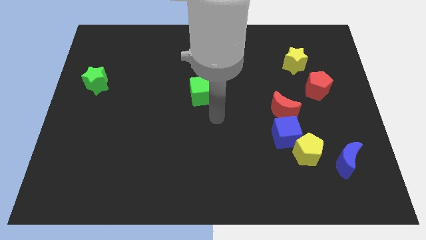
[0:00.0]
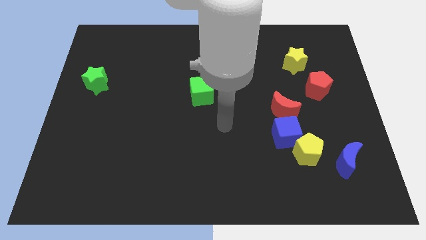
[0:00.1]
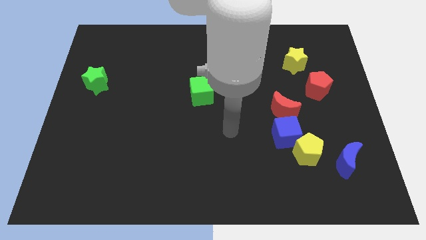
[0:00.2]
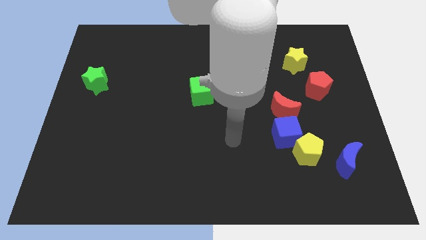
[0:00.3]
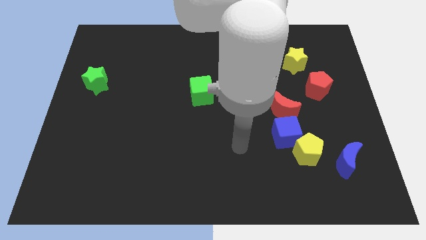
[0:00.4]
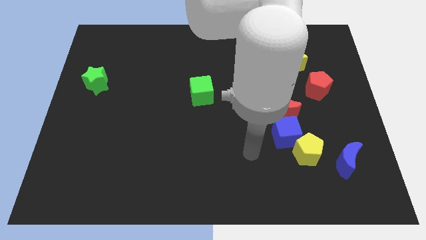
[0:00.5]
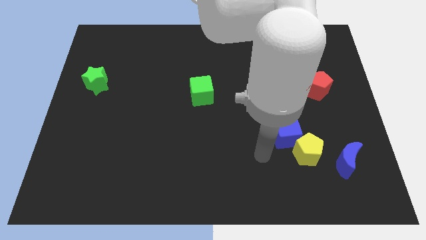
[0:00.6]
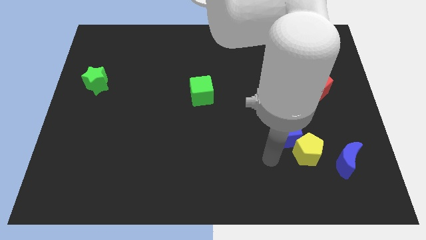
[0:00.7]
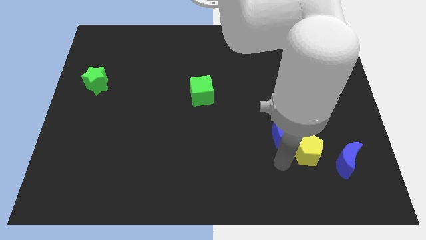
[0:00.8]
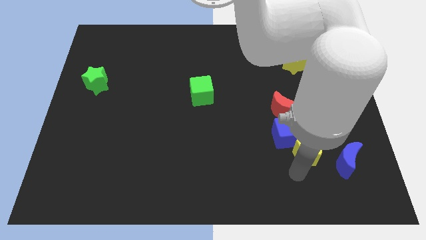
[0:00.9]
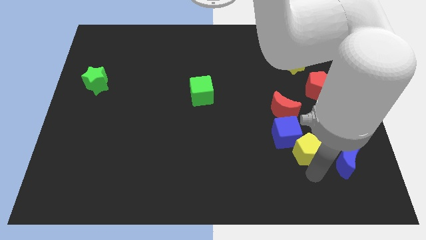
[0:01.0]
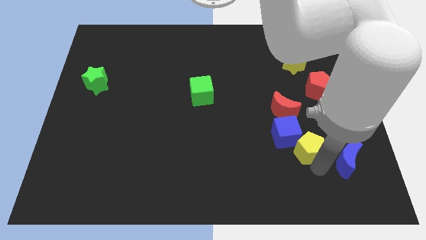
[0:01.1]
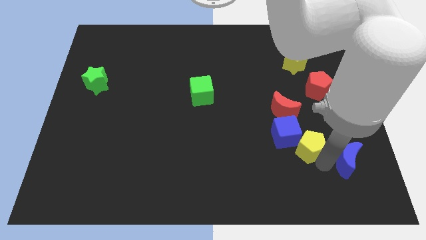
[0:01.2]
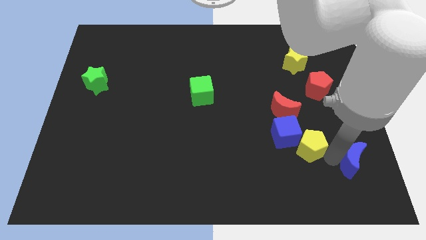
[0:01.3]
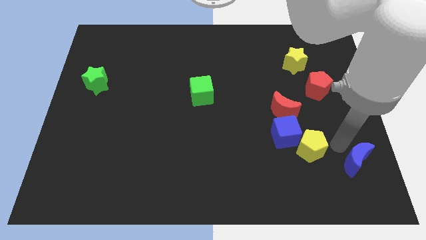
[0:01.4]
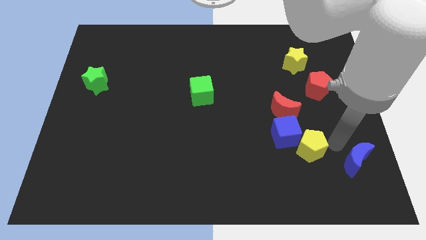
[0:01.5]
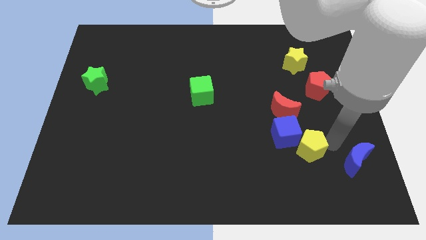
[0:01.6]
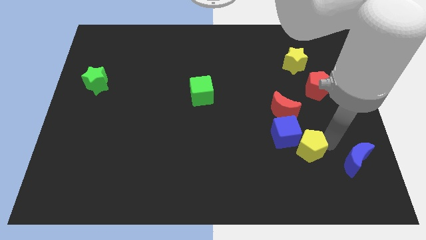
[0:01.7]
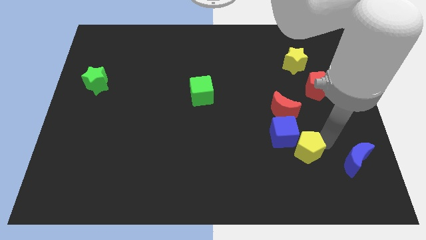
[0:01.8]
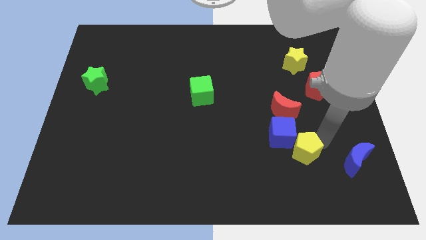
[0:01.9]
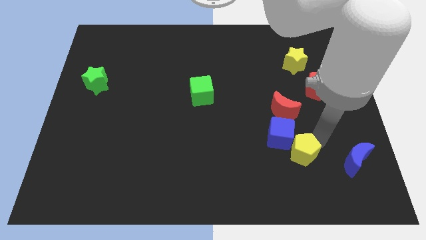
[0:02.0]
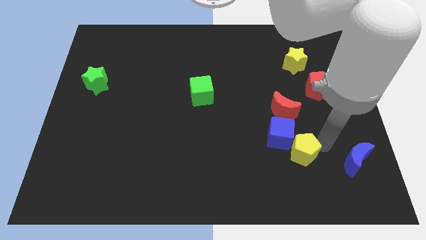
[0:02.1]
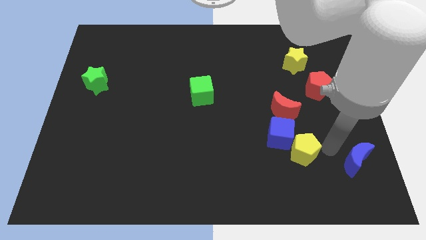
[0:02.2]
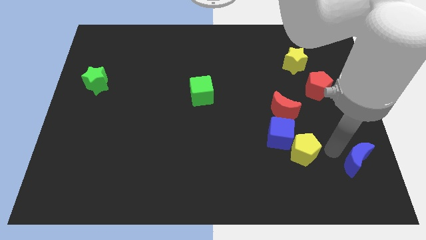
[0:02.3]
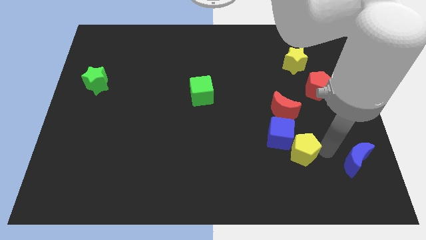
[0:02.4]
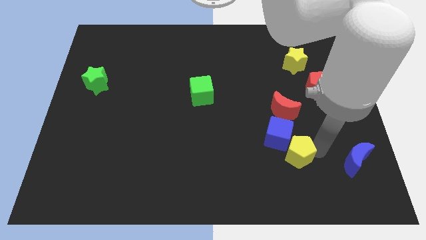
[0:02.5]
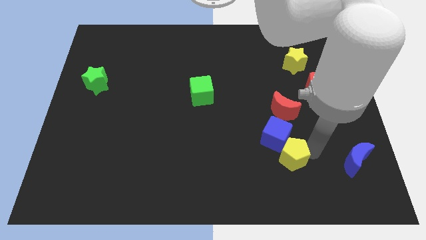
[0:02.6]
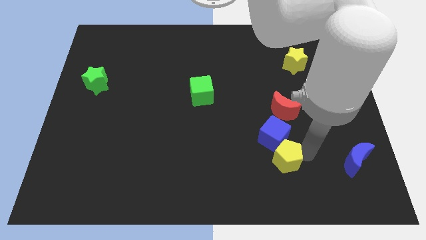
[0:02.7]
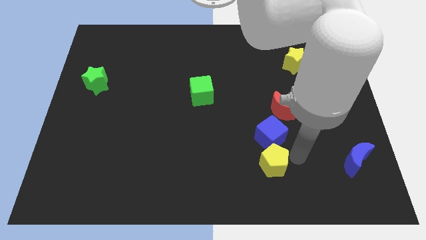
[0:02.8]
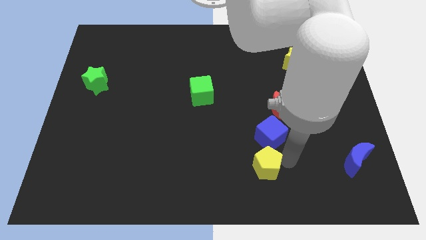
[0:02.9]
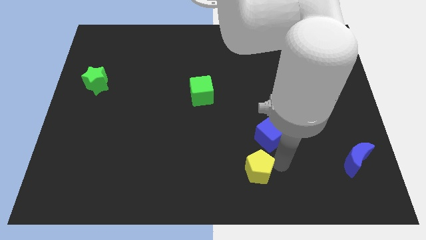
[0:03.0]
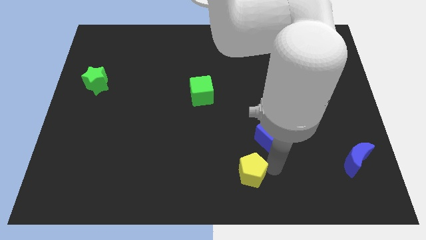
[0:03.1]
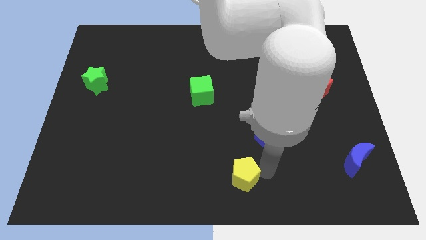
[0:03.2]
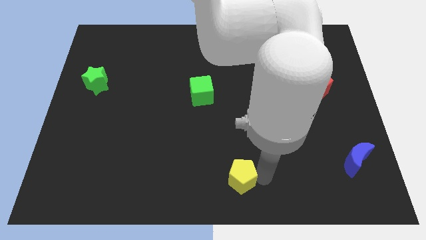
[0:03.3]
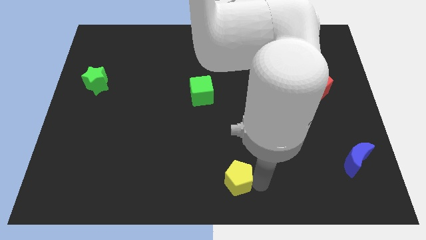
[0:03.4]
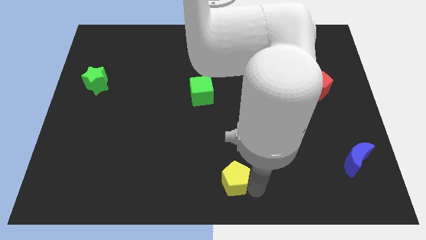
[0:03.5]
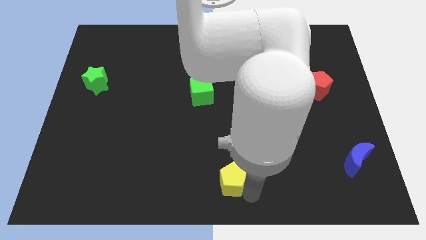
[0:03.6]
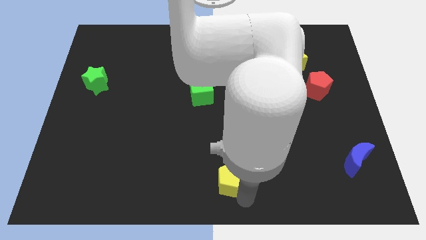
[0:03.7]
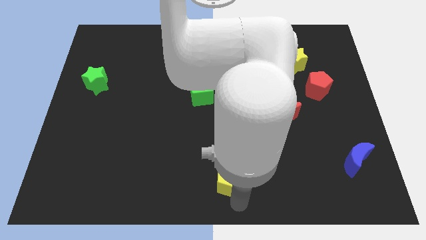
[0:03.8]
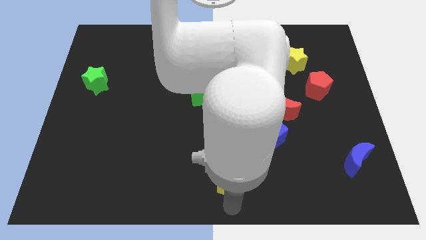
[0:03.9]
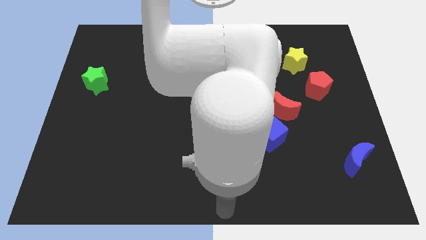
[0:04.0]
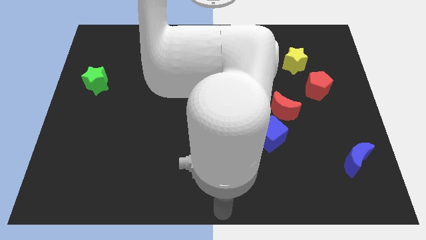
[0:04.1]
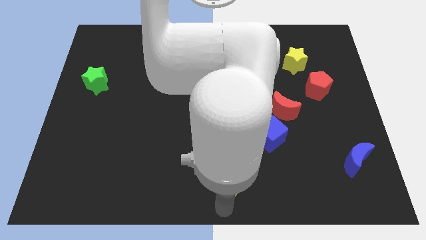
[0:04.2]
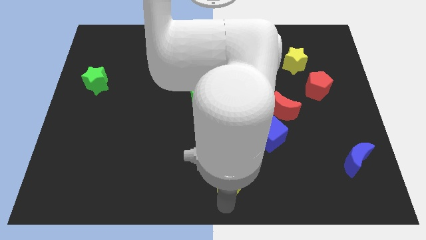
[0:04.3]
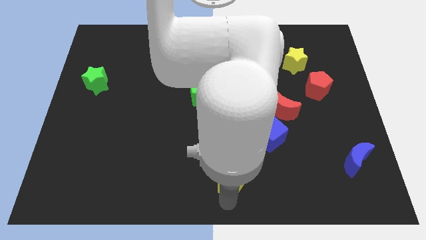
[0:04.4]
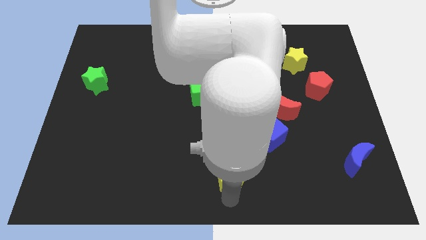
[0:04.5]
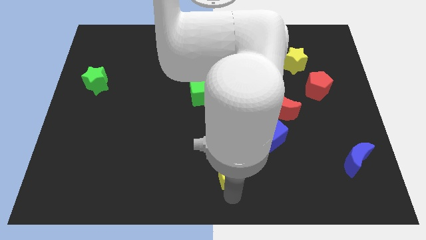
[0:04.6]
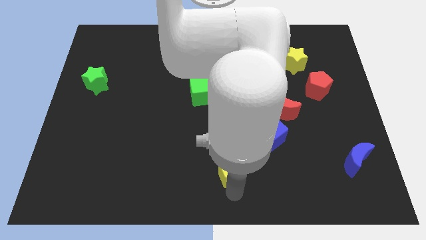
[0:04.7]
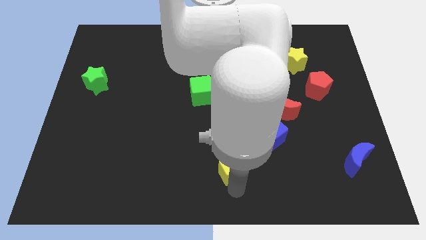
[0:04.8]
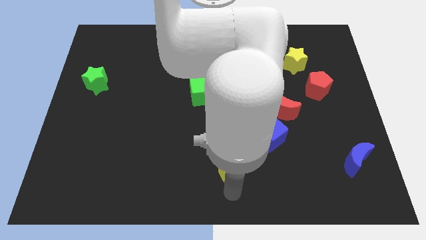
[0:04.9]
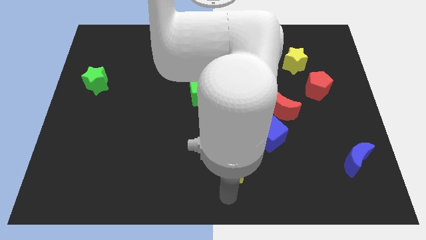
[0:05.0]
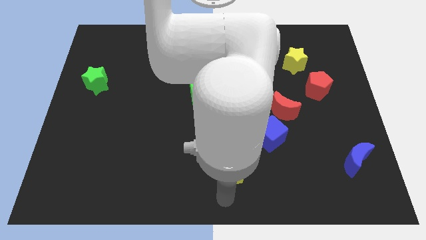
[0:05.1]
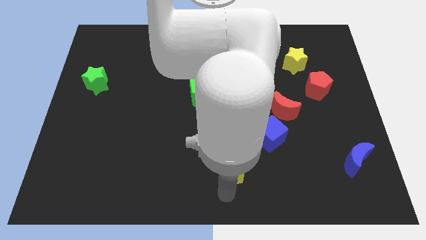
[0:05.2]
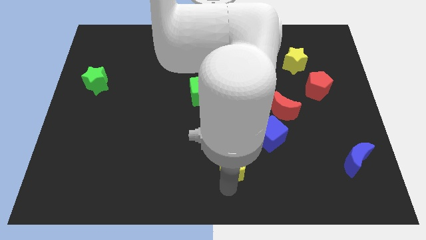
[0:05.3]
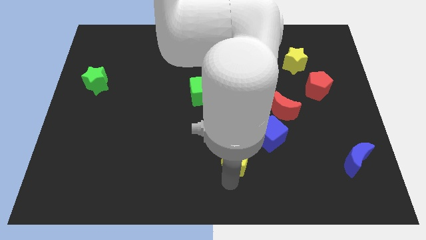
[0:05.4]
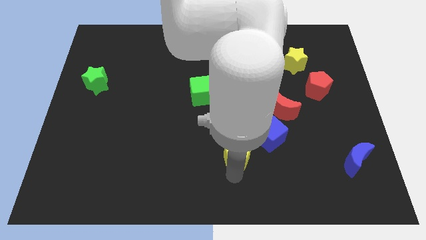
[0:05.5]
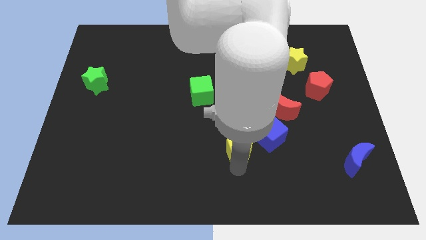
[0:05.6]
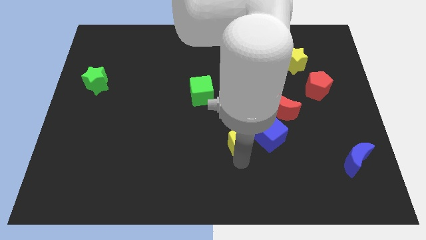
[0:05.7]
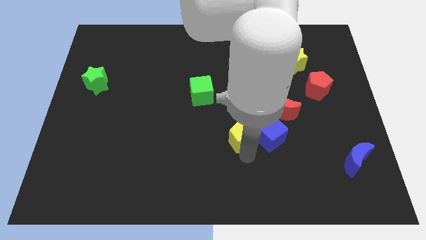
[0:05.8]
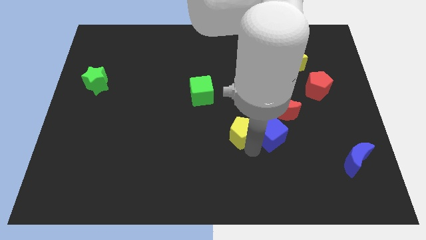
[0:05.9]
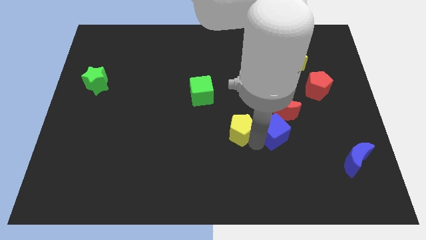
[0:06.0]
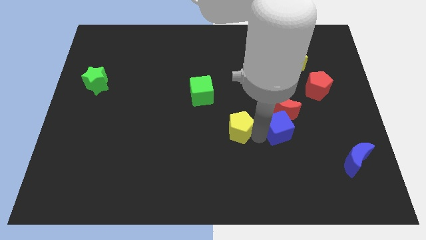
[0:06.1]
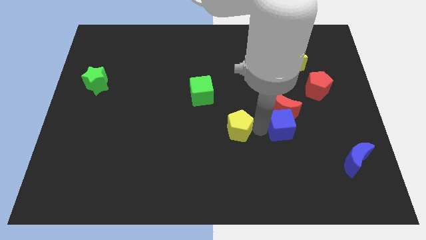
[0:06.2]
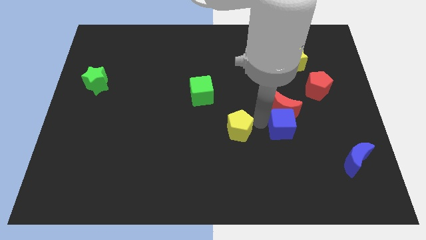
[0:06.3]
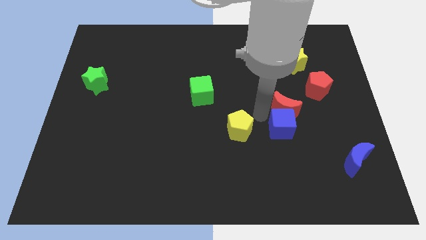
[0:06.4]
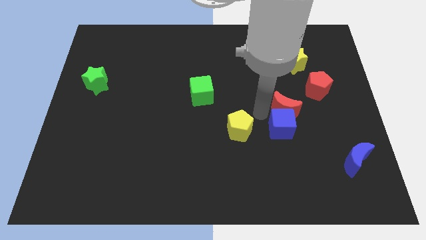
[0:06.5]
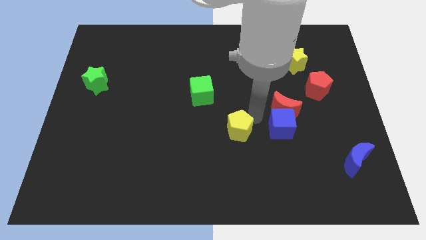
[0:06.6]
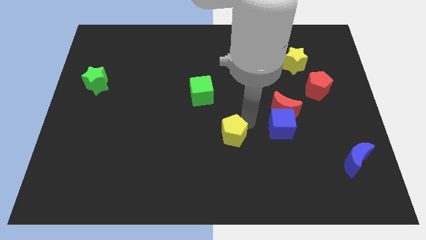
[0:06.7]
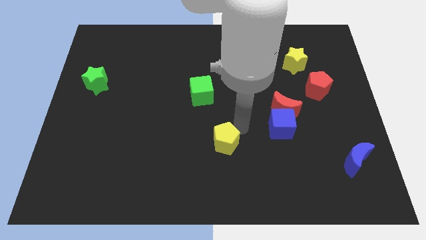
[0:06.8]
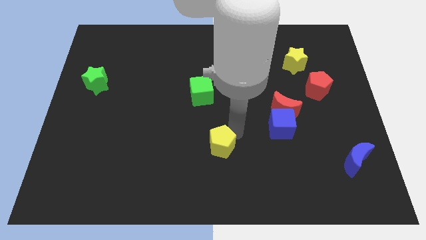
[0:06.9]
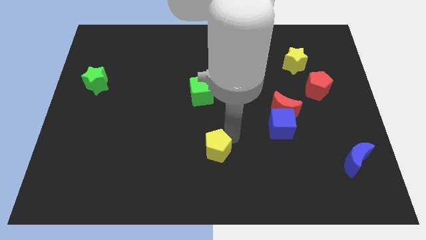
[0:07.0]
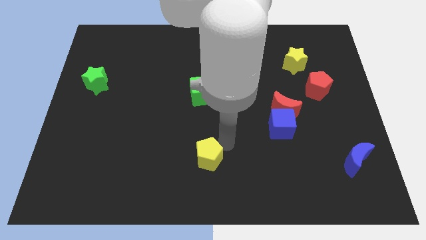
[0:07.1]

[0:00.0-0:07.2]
slide the yellow pentagon left

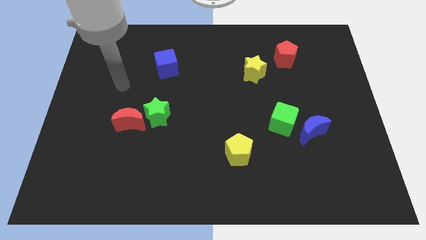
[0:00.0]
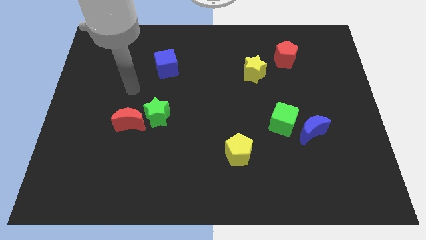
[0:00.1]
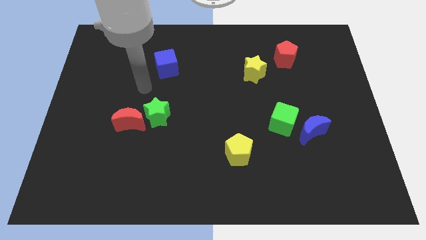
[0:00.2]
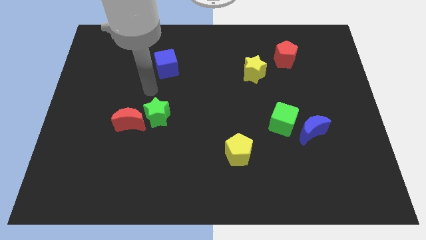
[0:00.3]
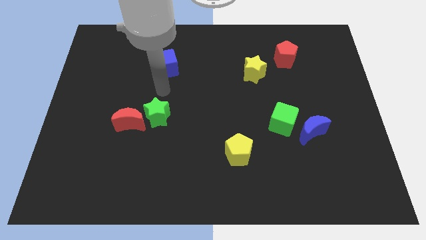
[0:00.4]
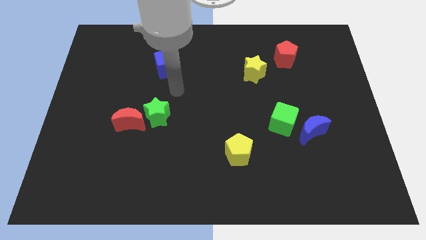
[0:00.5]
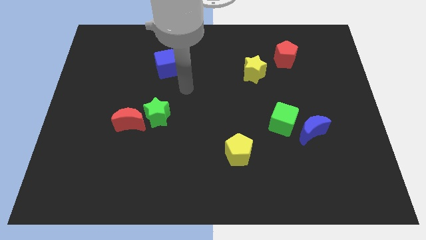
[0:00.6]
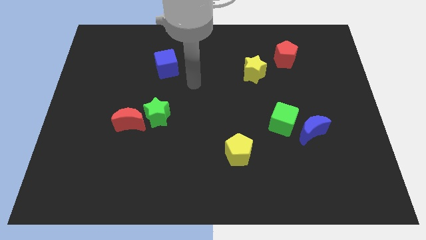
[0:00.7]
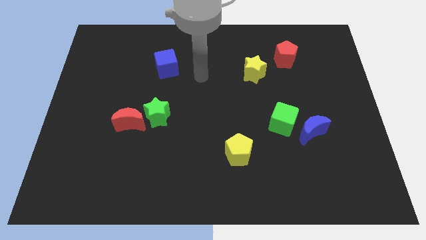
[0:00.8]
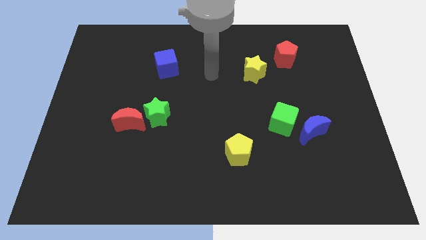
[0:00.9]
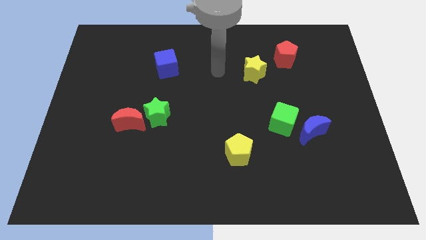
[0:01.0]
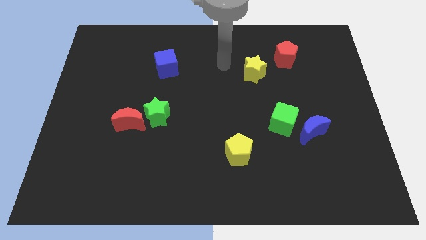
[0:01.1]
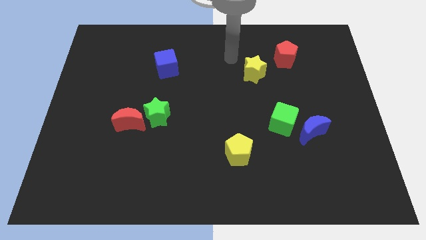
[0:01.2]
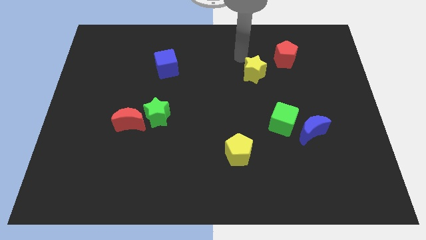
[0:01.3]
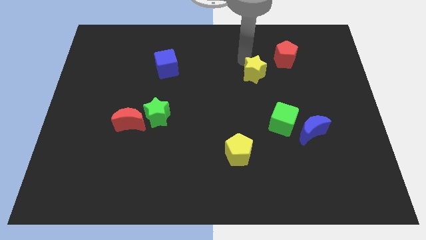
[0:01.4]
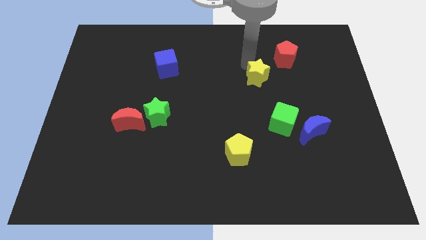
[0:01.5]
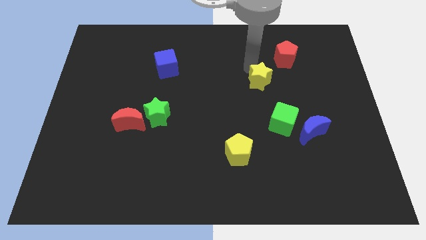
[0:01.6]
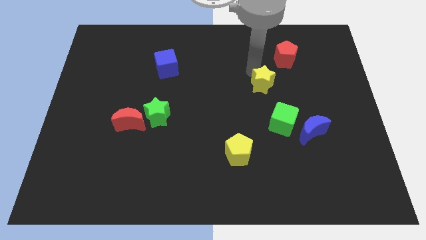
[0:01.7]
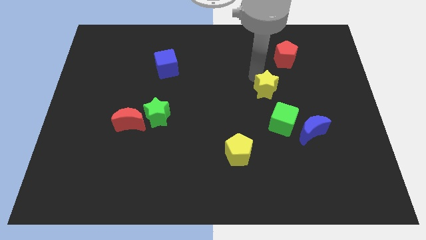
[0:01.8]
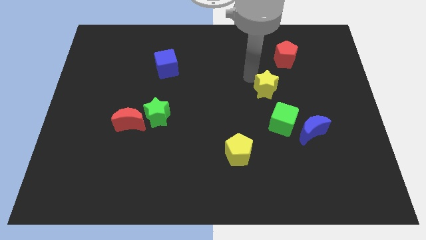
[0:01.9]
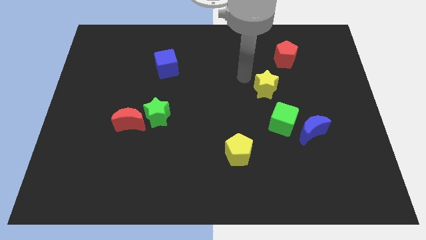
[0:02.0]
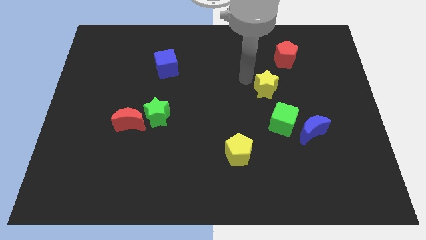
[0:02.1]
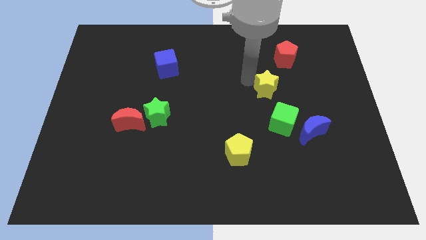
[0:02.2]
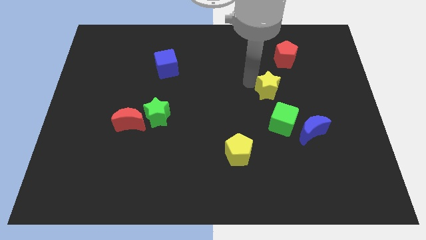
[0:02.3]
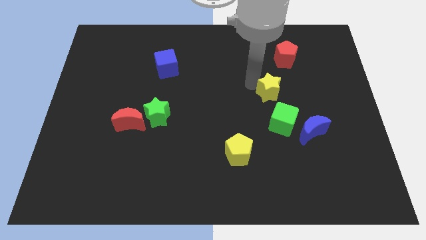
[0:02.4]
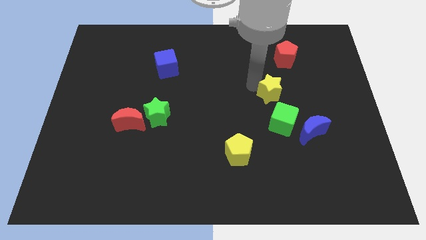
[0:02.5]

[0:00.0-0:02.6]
slide the yellow star somewhat downwards and then to the right
